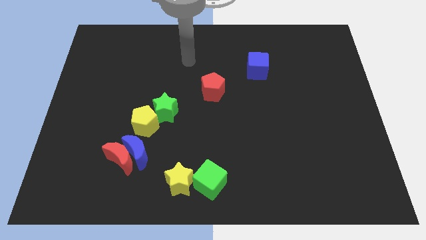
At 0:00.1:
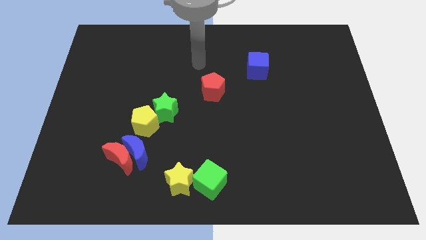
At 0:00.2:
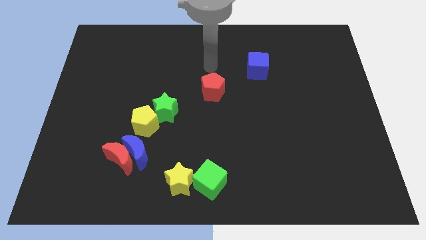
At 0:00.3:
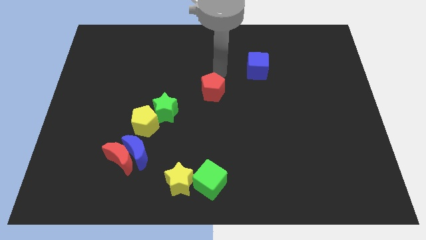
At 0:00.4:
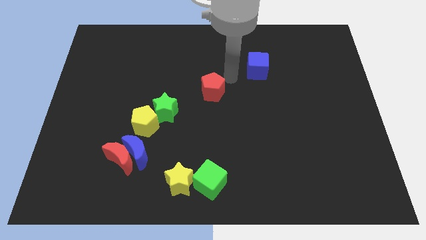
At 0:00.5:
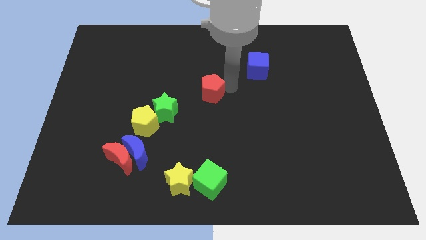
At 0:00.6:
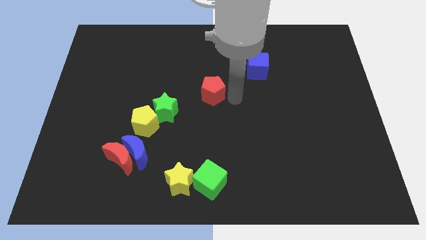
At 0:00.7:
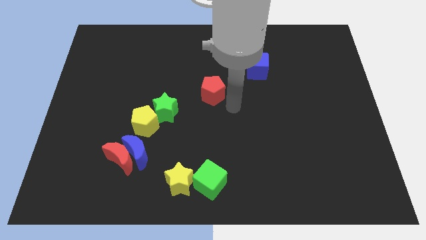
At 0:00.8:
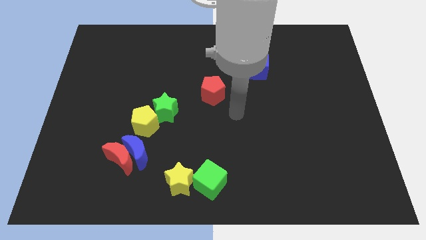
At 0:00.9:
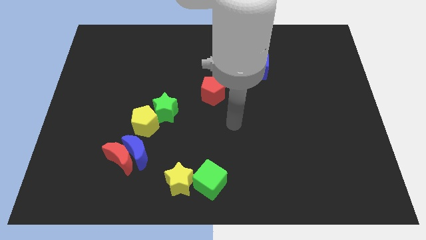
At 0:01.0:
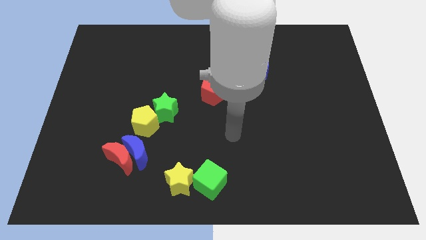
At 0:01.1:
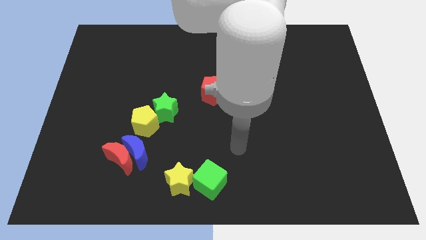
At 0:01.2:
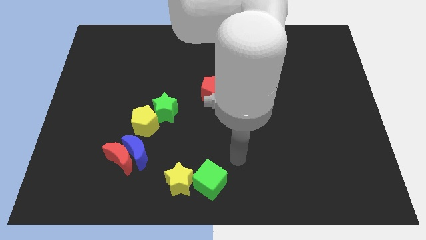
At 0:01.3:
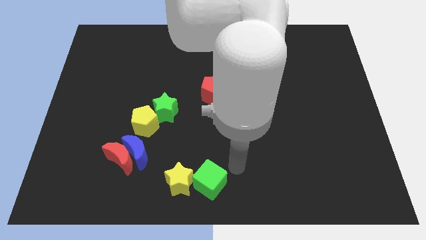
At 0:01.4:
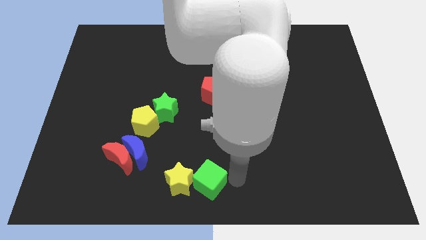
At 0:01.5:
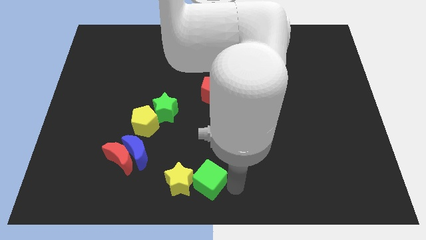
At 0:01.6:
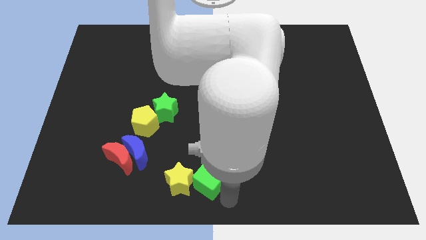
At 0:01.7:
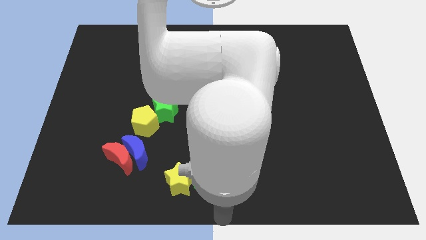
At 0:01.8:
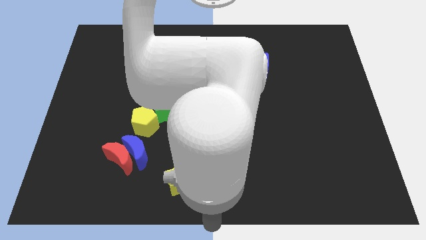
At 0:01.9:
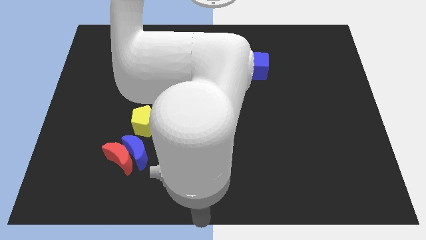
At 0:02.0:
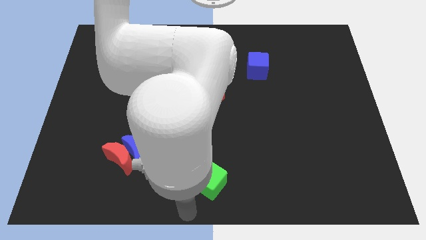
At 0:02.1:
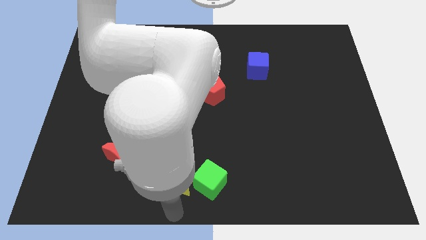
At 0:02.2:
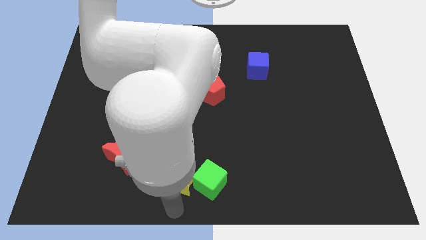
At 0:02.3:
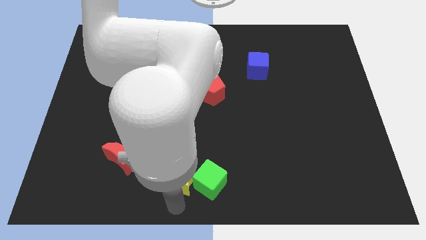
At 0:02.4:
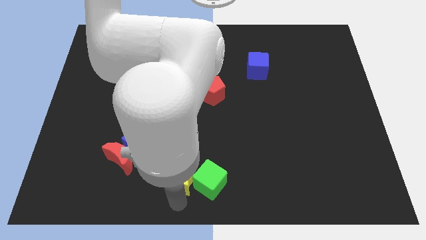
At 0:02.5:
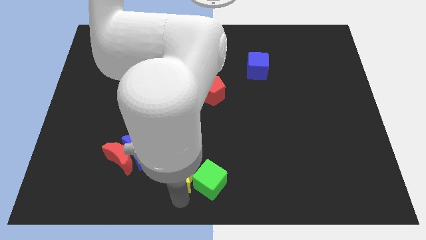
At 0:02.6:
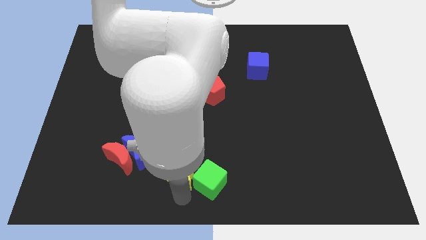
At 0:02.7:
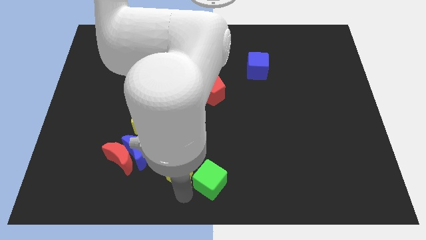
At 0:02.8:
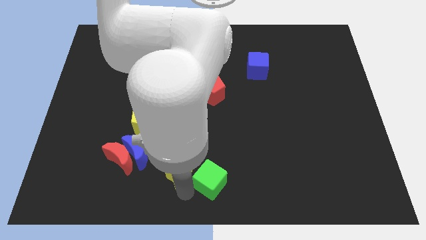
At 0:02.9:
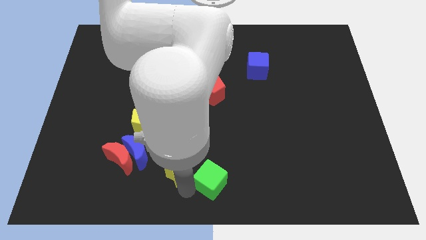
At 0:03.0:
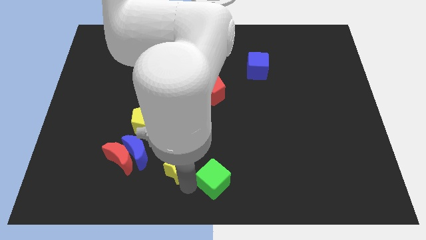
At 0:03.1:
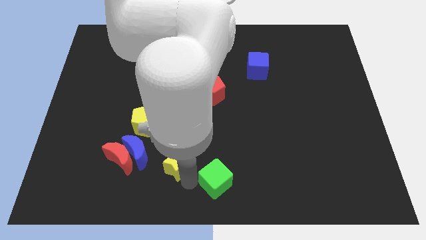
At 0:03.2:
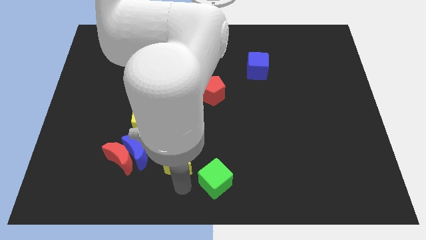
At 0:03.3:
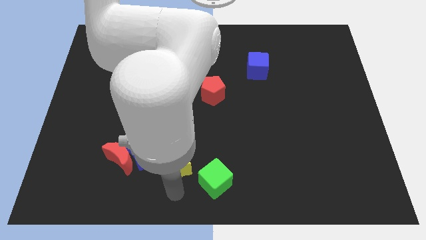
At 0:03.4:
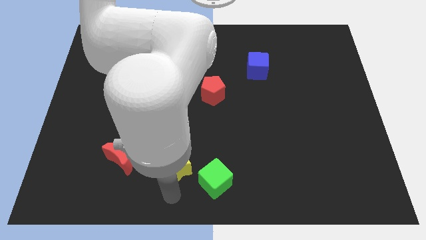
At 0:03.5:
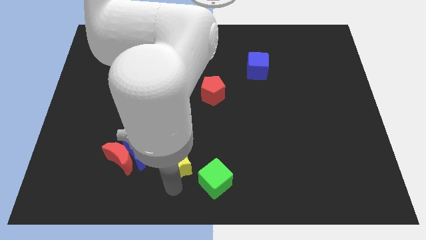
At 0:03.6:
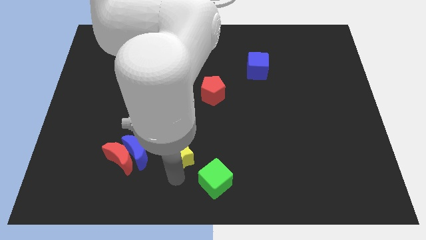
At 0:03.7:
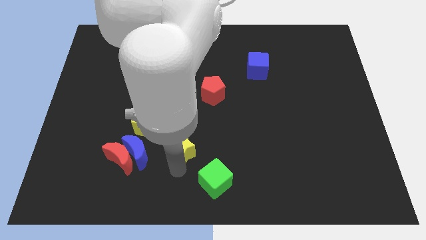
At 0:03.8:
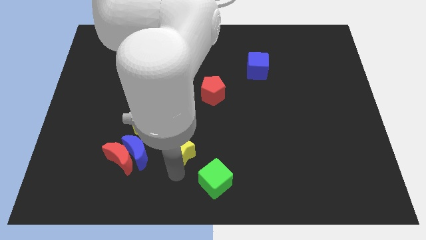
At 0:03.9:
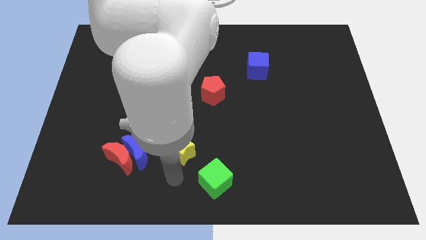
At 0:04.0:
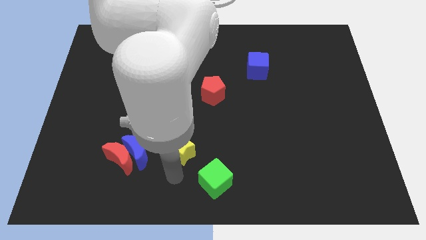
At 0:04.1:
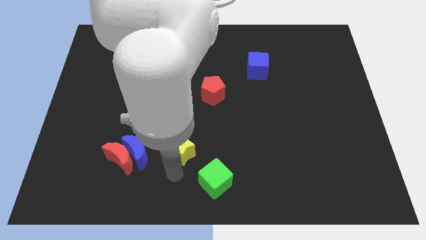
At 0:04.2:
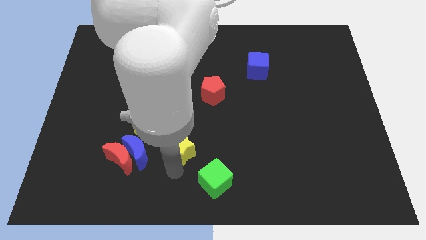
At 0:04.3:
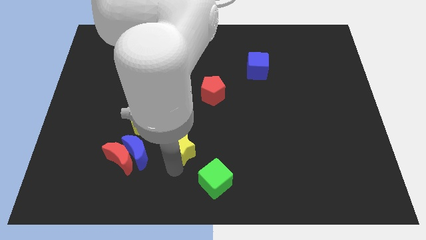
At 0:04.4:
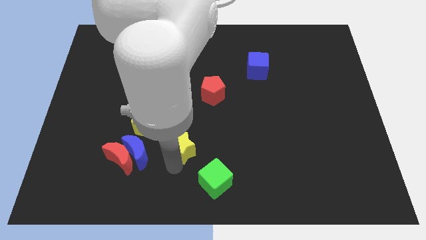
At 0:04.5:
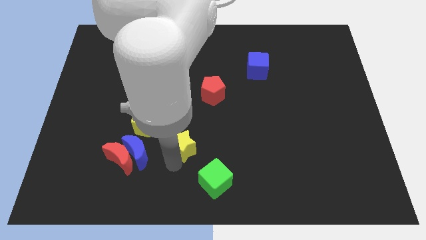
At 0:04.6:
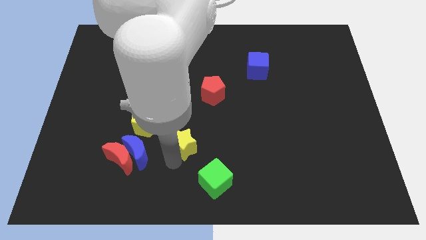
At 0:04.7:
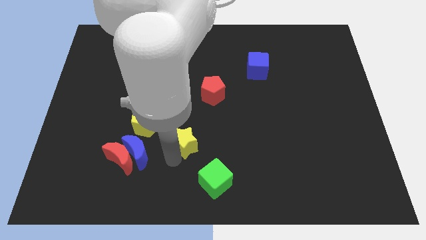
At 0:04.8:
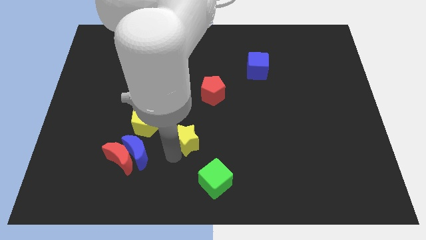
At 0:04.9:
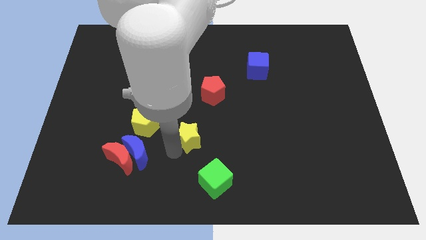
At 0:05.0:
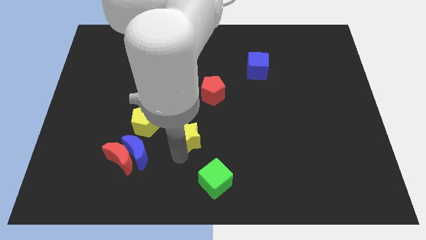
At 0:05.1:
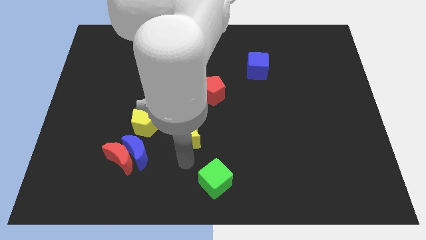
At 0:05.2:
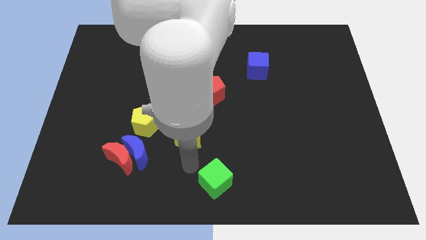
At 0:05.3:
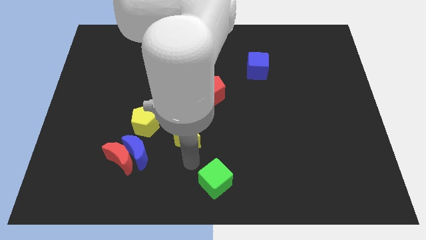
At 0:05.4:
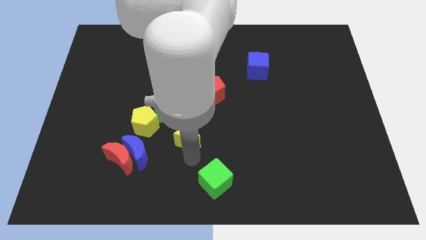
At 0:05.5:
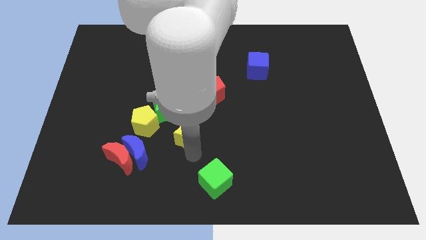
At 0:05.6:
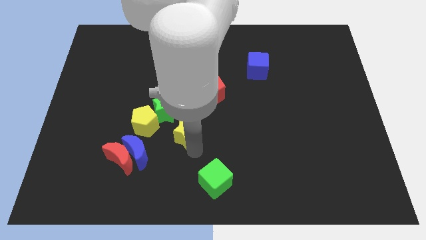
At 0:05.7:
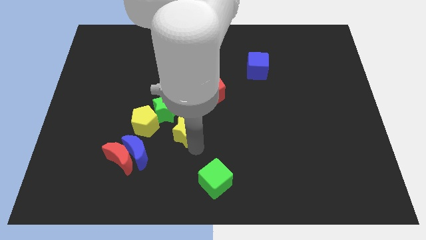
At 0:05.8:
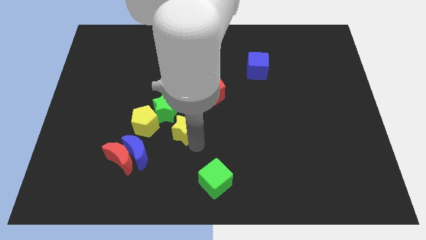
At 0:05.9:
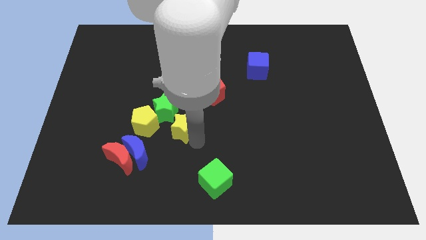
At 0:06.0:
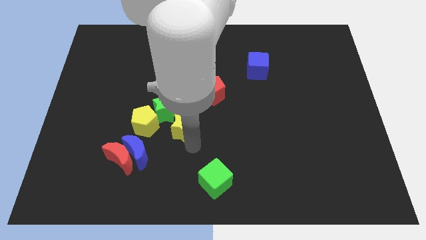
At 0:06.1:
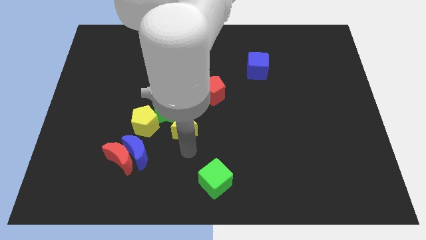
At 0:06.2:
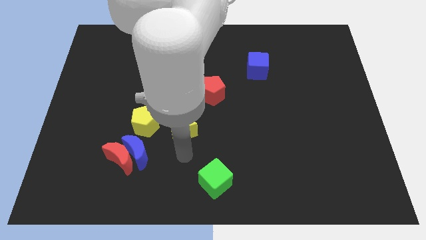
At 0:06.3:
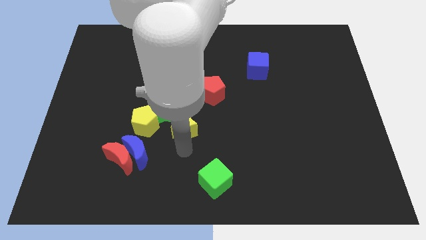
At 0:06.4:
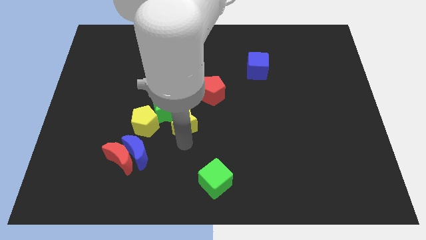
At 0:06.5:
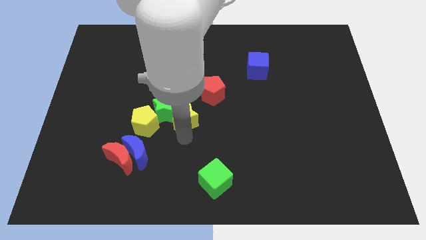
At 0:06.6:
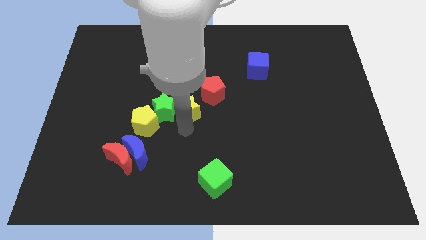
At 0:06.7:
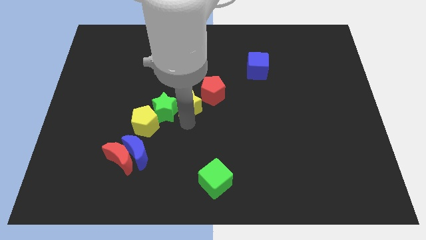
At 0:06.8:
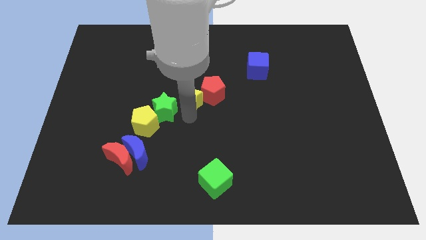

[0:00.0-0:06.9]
move the yellow star up

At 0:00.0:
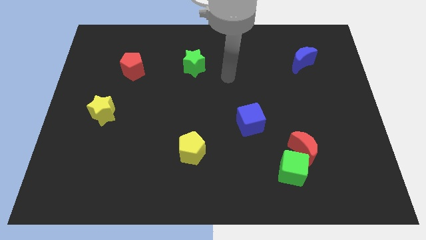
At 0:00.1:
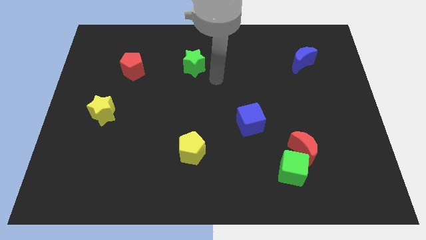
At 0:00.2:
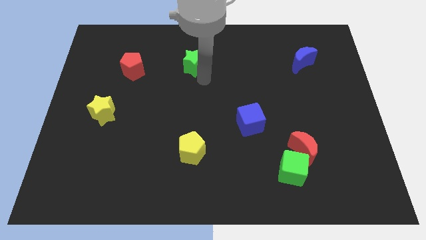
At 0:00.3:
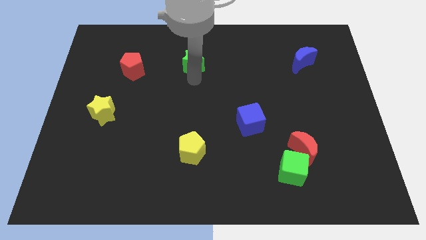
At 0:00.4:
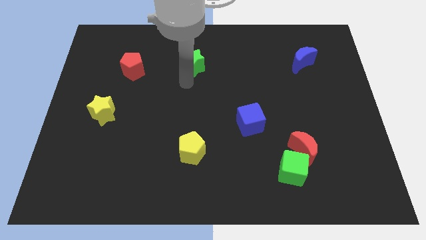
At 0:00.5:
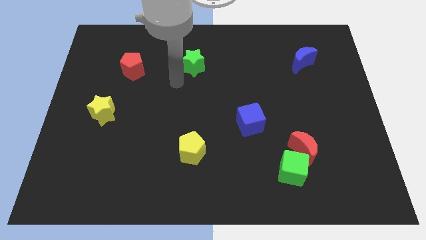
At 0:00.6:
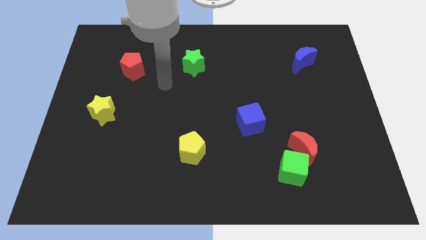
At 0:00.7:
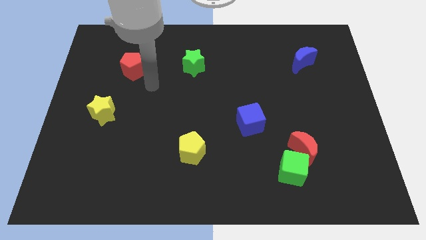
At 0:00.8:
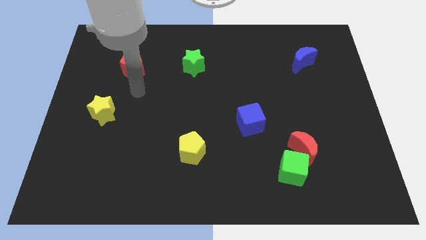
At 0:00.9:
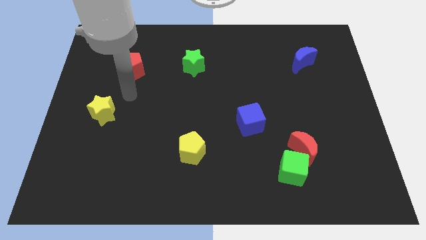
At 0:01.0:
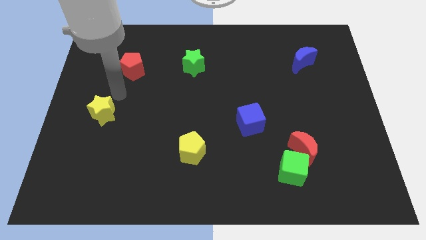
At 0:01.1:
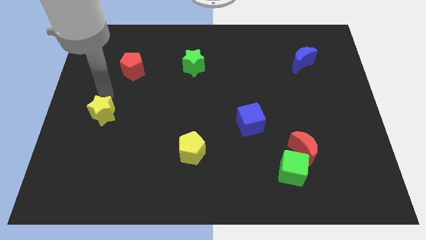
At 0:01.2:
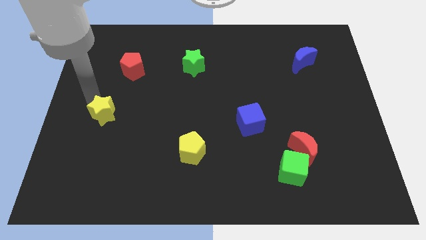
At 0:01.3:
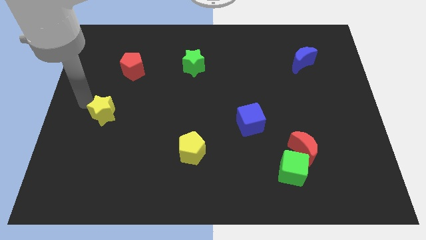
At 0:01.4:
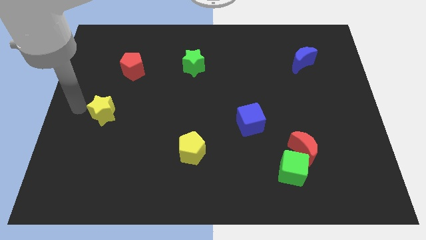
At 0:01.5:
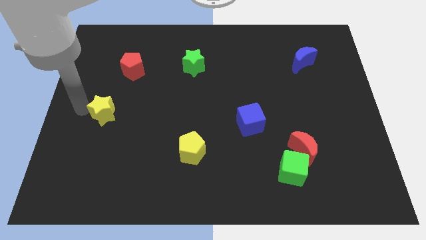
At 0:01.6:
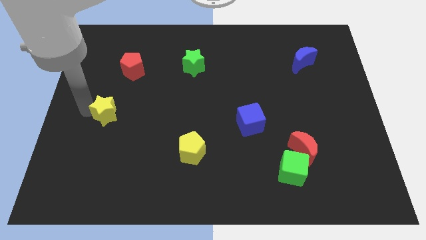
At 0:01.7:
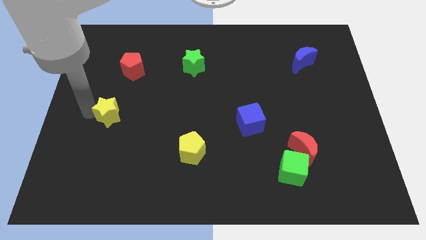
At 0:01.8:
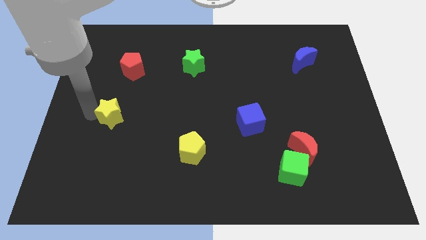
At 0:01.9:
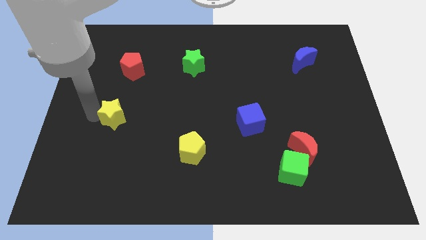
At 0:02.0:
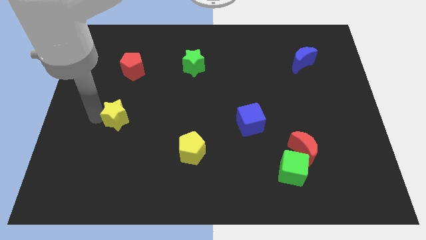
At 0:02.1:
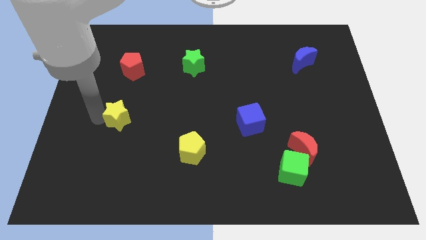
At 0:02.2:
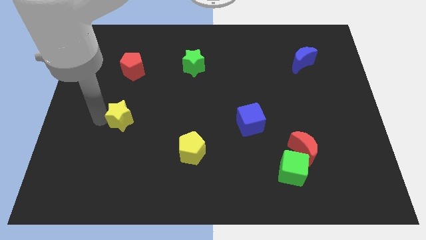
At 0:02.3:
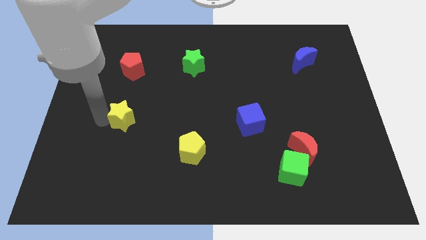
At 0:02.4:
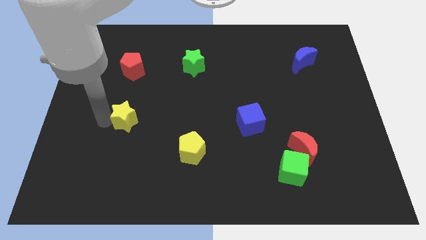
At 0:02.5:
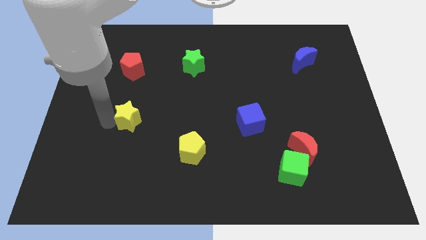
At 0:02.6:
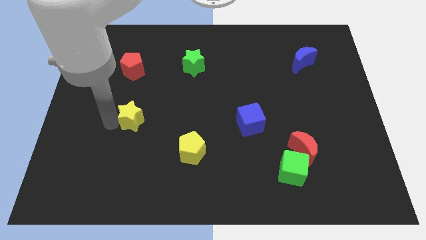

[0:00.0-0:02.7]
push the yellow star a little bit to the right
